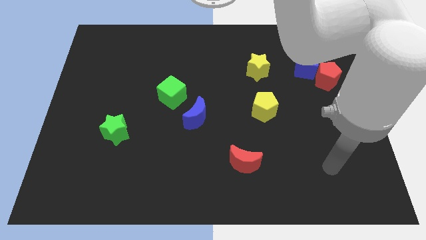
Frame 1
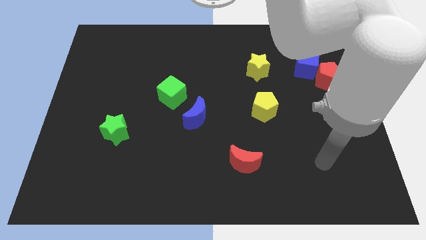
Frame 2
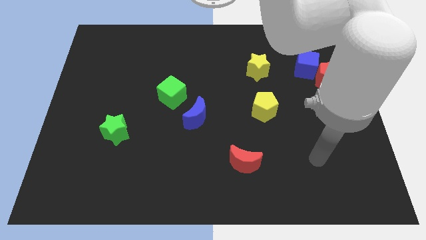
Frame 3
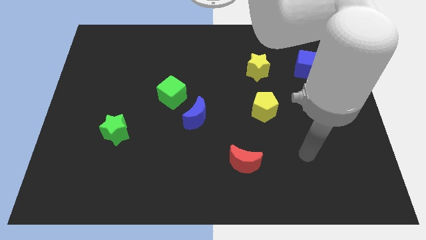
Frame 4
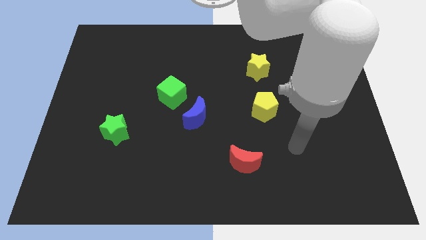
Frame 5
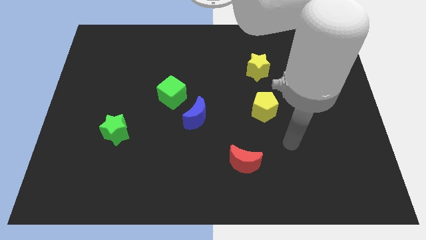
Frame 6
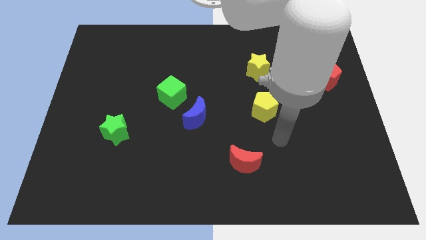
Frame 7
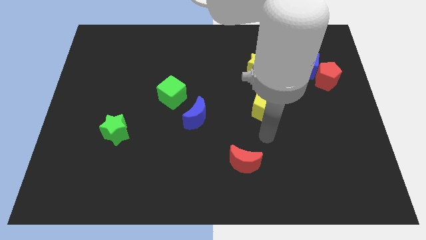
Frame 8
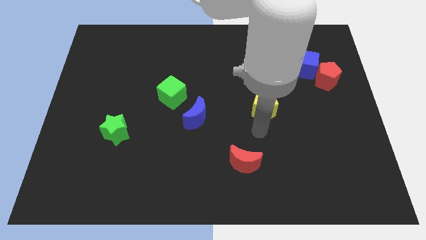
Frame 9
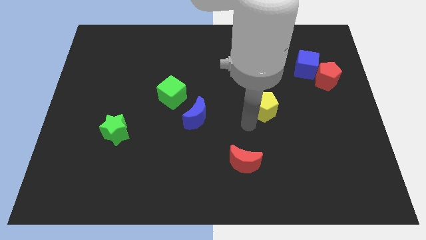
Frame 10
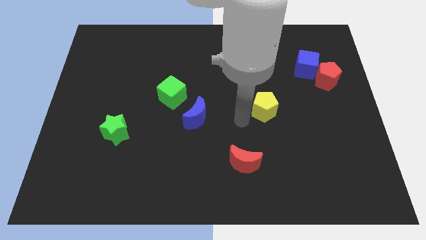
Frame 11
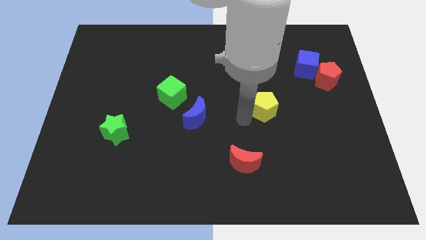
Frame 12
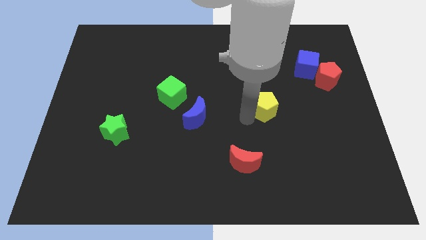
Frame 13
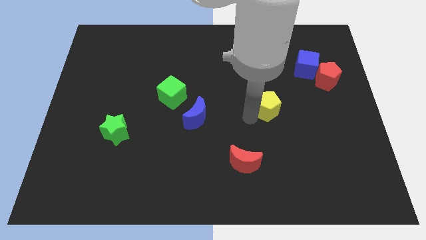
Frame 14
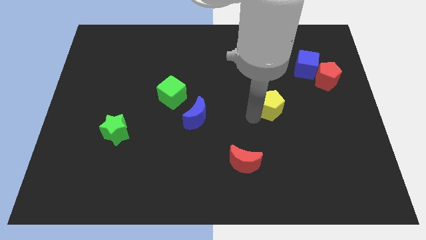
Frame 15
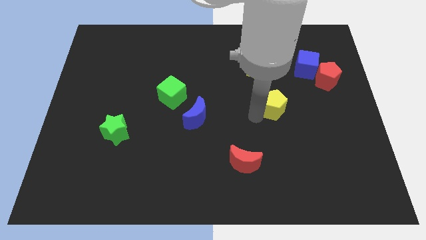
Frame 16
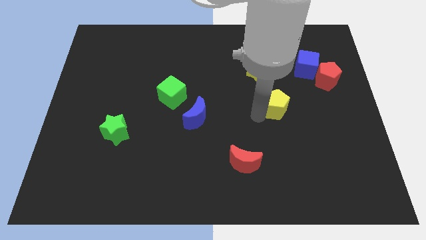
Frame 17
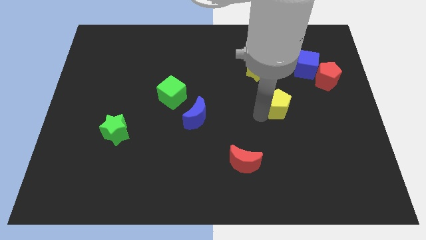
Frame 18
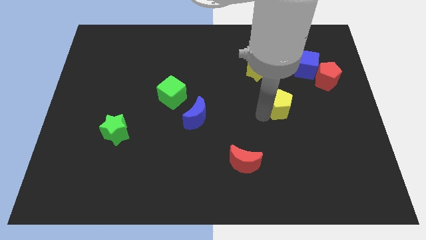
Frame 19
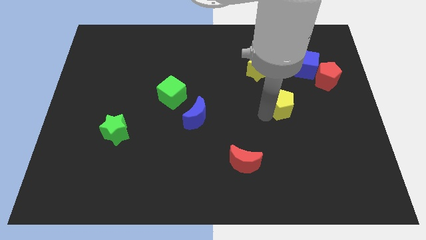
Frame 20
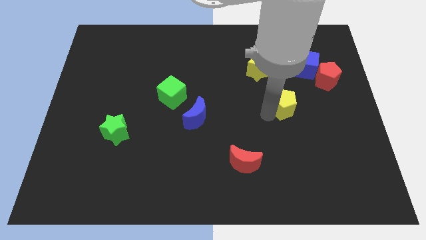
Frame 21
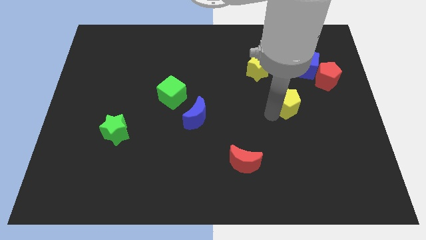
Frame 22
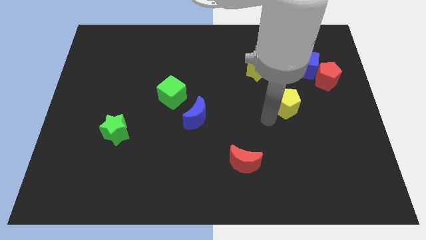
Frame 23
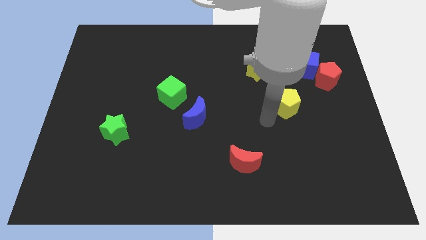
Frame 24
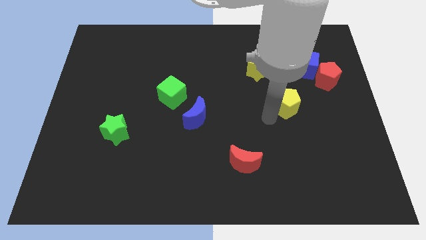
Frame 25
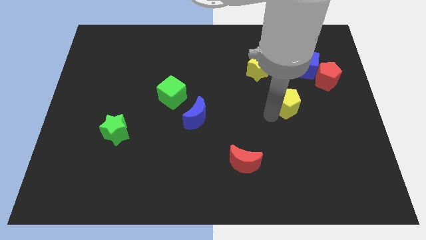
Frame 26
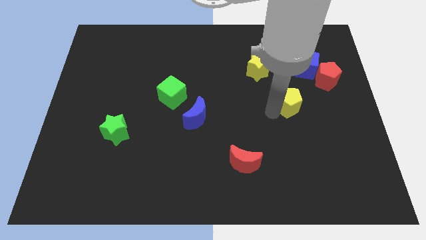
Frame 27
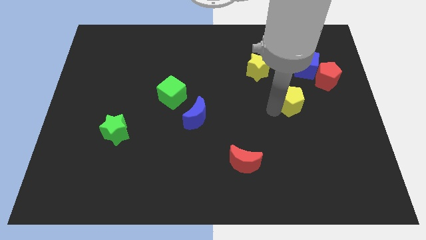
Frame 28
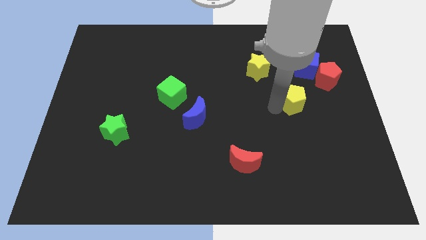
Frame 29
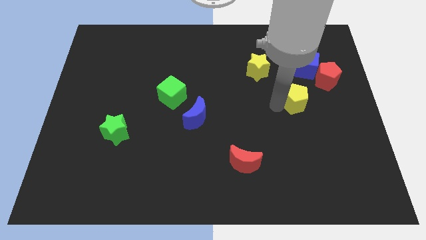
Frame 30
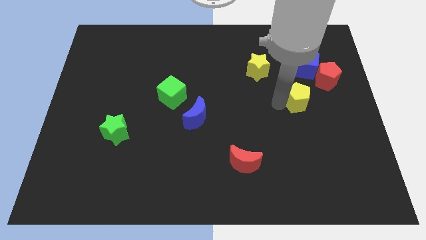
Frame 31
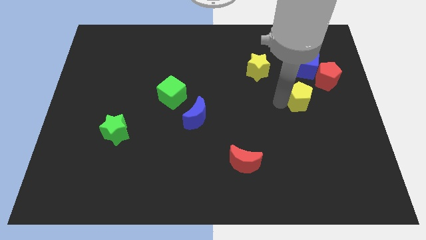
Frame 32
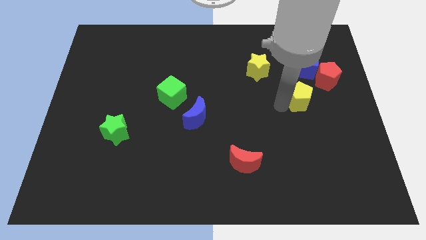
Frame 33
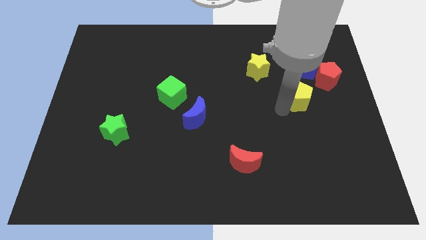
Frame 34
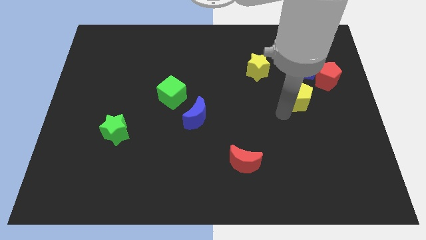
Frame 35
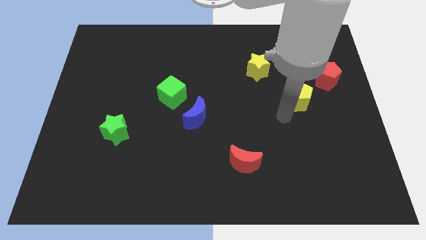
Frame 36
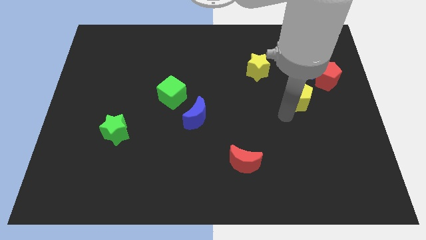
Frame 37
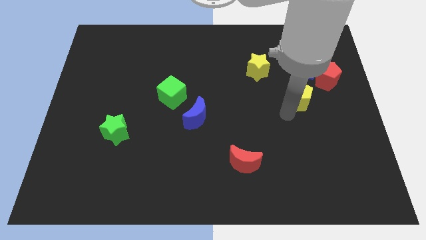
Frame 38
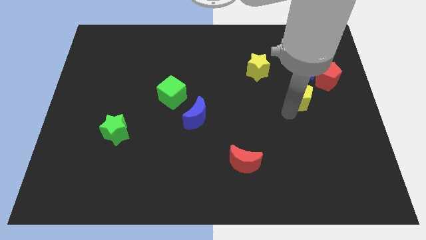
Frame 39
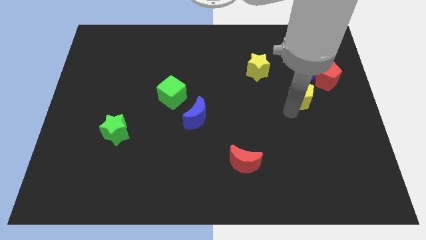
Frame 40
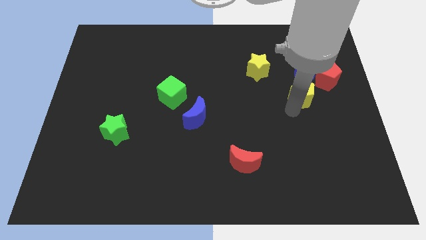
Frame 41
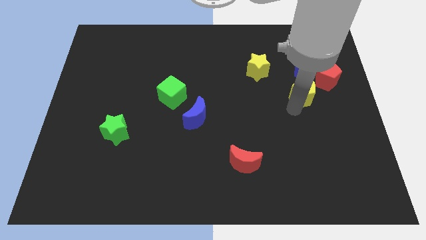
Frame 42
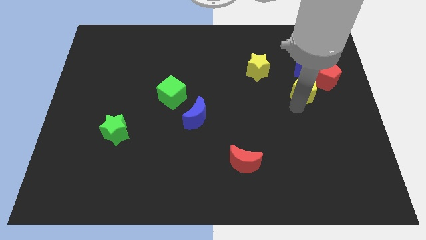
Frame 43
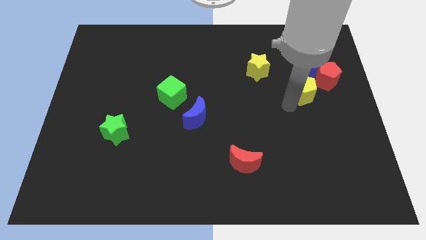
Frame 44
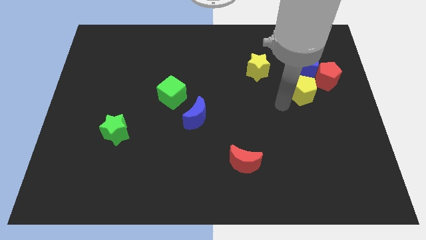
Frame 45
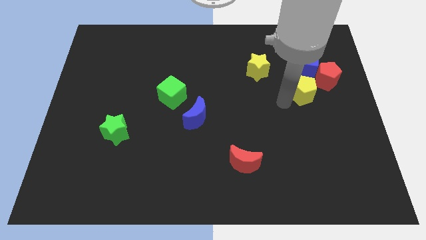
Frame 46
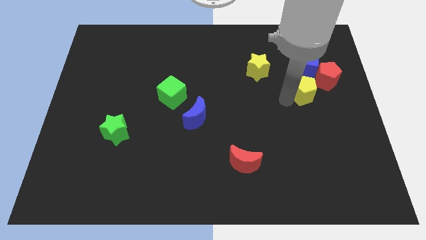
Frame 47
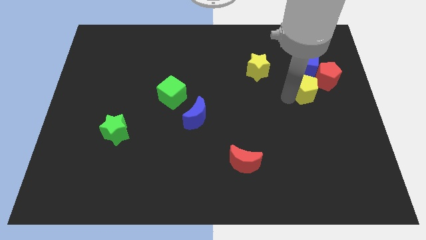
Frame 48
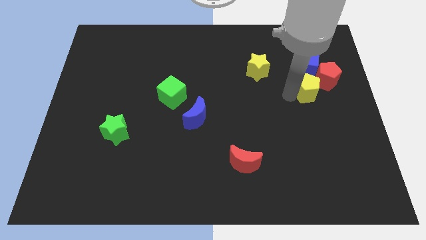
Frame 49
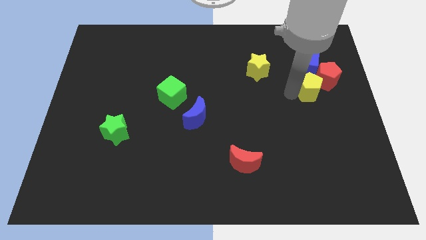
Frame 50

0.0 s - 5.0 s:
move the yellow pentagon close to the red pentagon

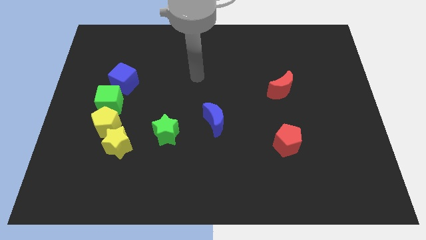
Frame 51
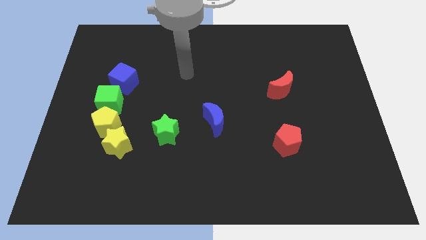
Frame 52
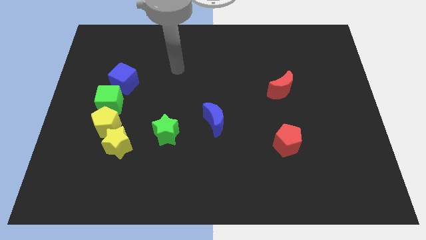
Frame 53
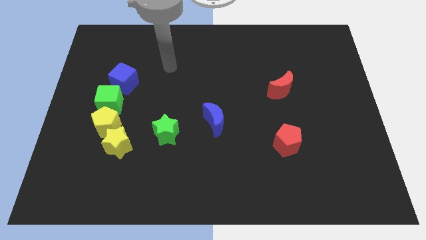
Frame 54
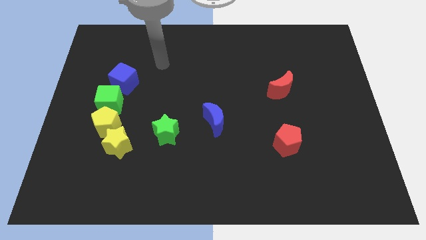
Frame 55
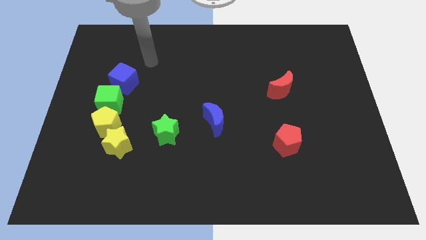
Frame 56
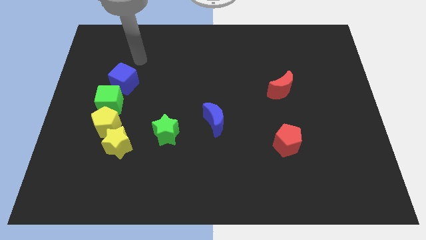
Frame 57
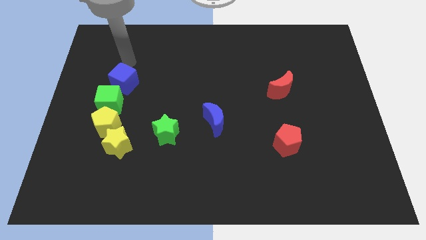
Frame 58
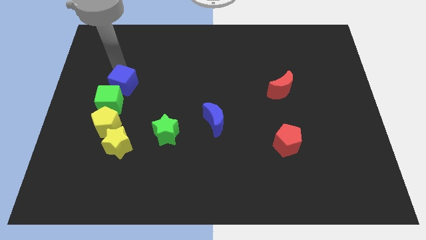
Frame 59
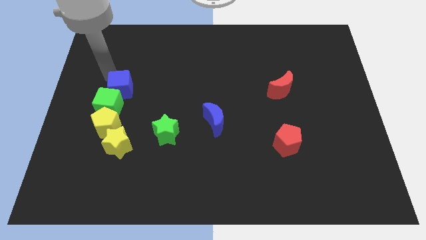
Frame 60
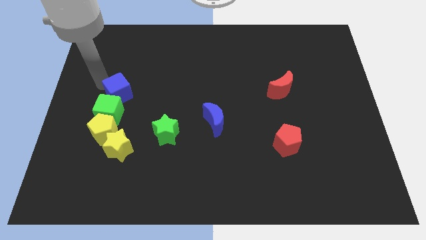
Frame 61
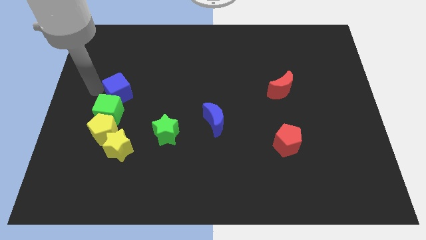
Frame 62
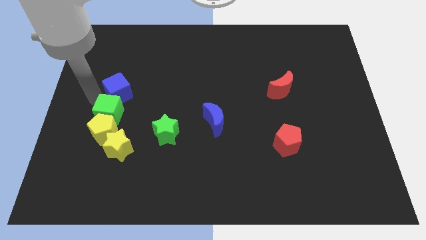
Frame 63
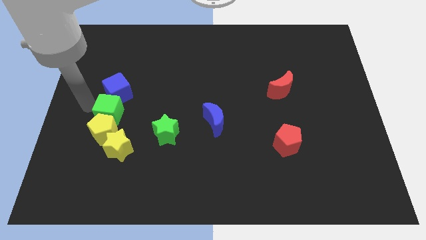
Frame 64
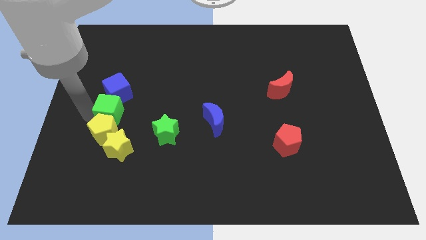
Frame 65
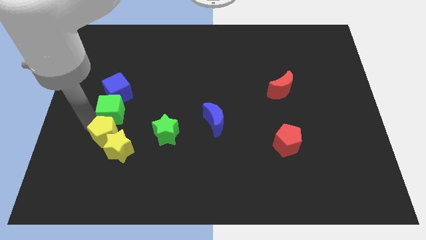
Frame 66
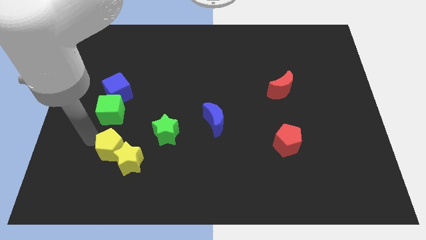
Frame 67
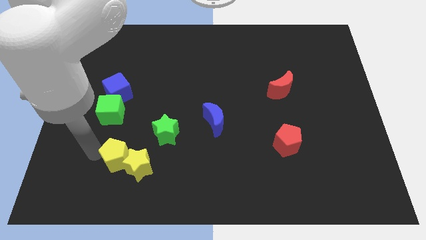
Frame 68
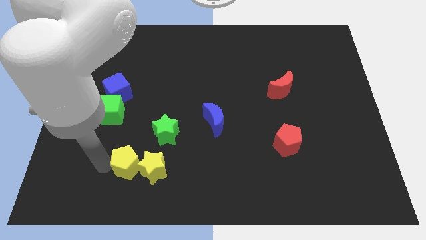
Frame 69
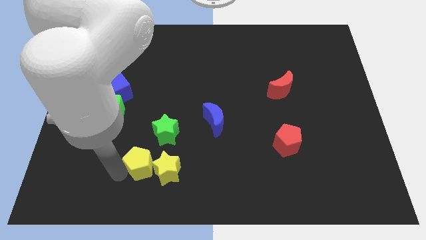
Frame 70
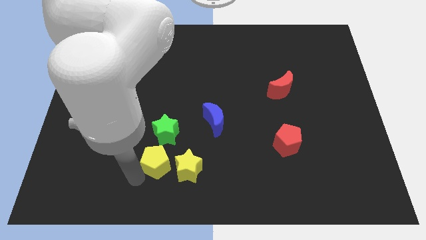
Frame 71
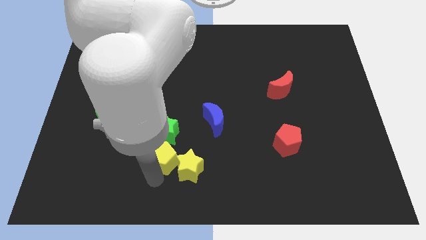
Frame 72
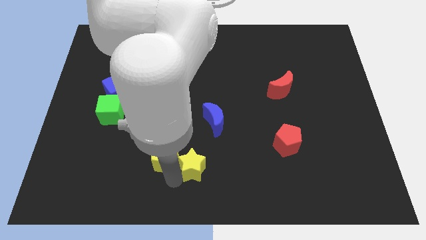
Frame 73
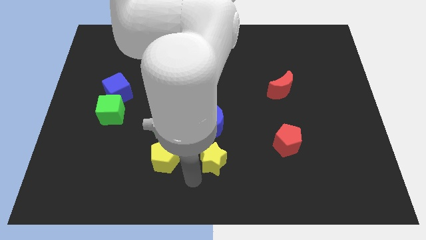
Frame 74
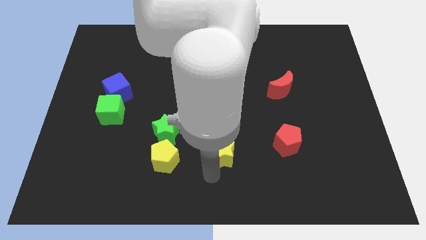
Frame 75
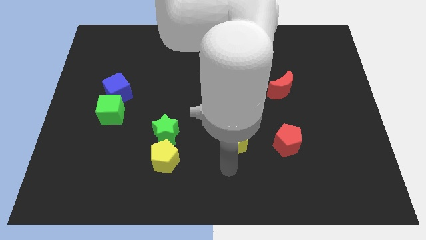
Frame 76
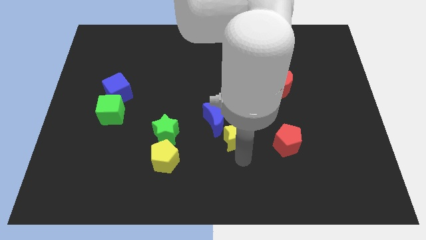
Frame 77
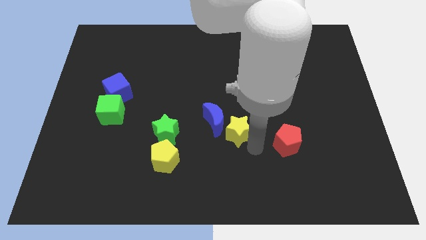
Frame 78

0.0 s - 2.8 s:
slide the yellow star close to the blue moon
